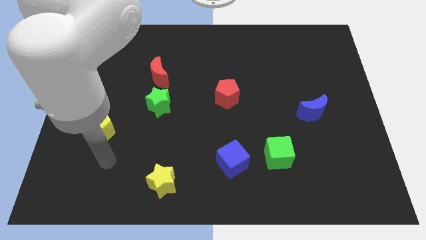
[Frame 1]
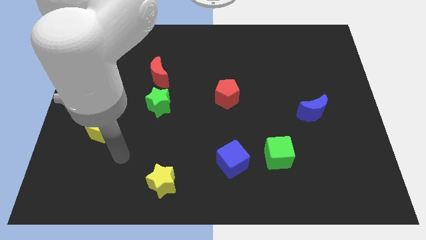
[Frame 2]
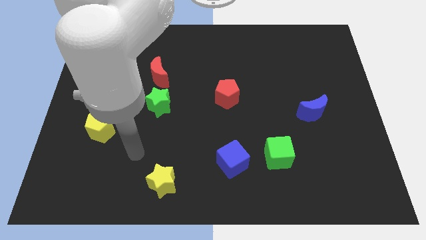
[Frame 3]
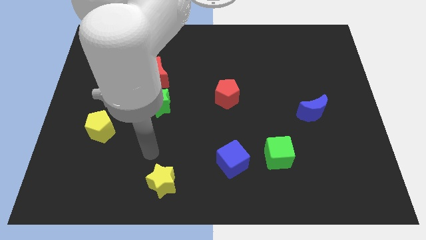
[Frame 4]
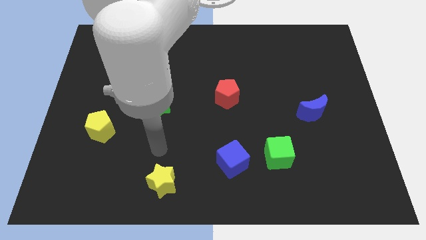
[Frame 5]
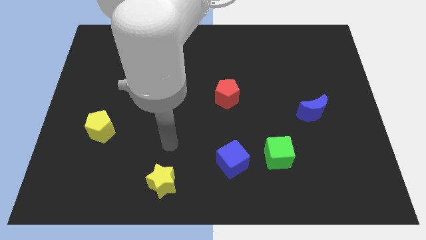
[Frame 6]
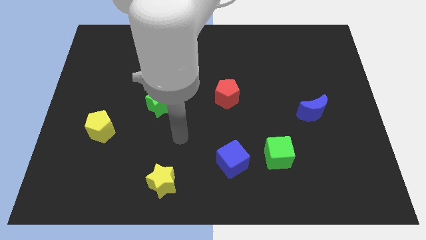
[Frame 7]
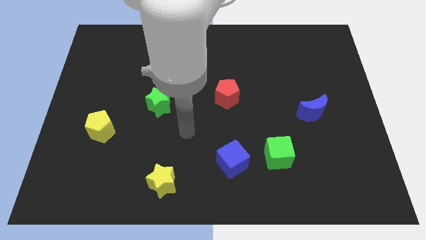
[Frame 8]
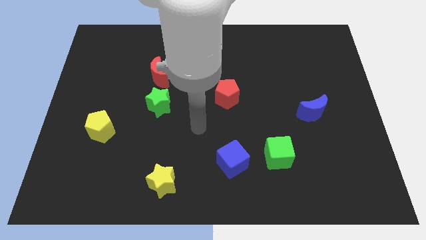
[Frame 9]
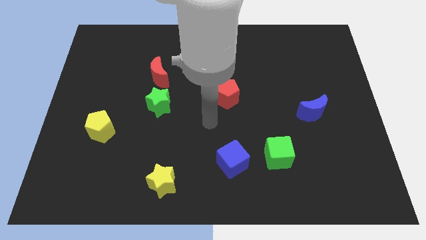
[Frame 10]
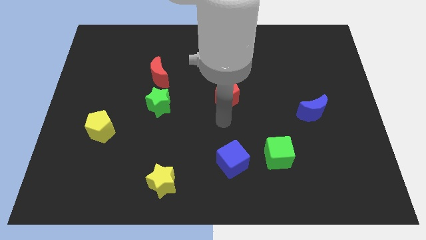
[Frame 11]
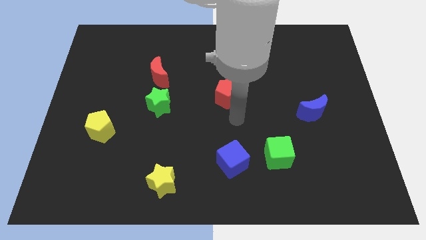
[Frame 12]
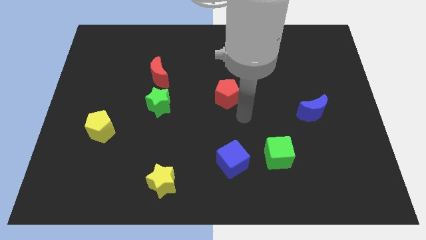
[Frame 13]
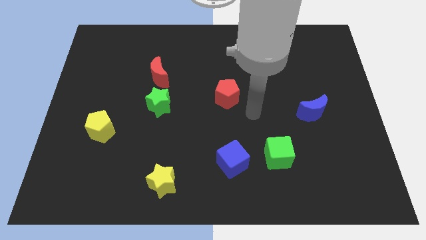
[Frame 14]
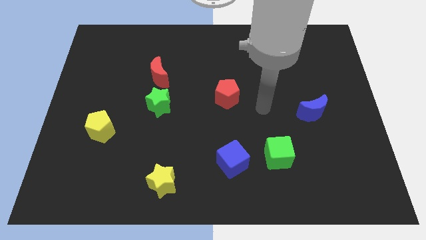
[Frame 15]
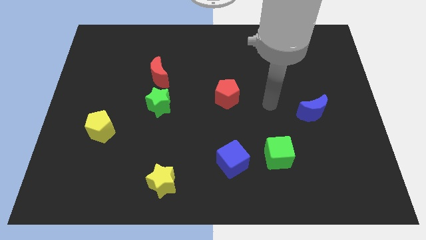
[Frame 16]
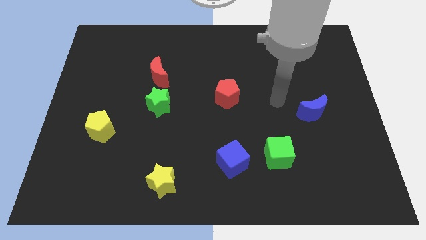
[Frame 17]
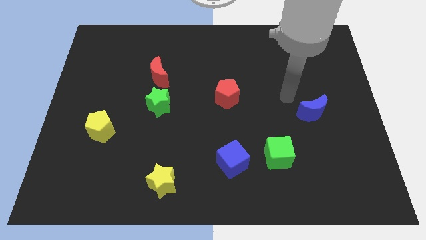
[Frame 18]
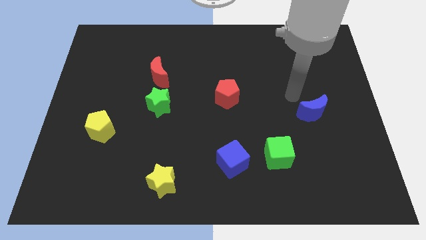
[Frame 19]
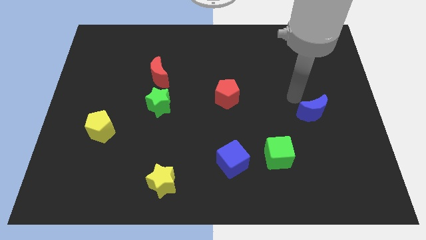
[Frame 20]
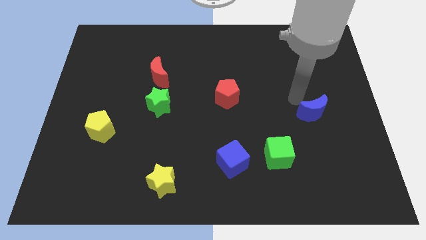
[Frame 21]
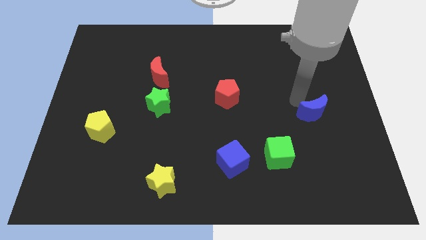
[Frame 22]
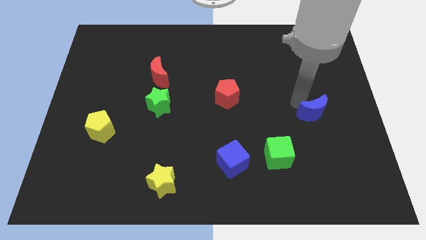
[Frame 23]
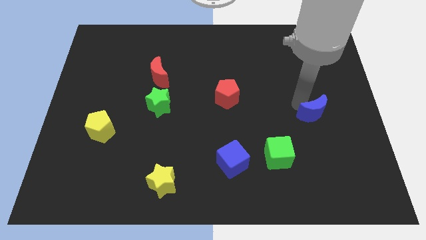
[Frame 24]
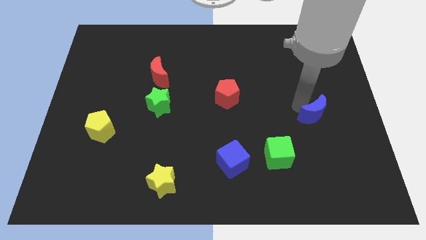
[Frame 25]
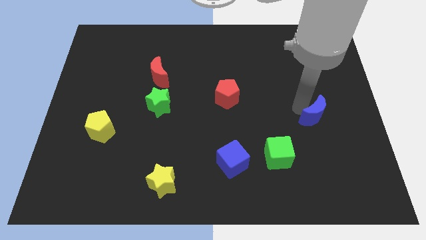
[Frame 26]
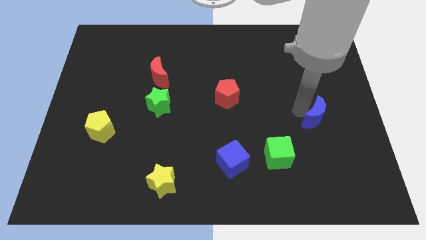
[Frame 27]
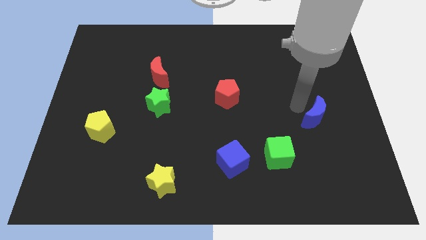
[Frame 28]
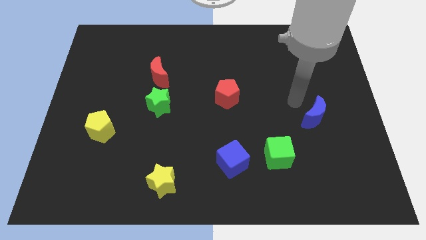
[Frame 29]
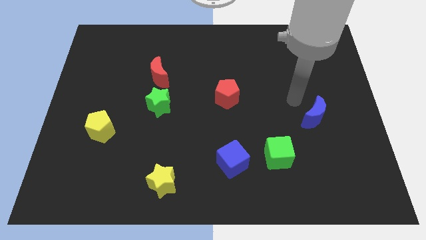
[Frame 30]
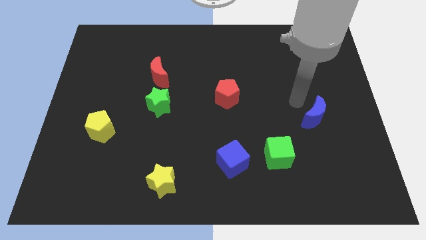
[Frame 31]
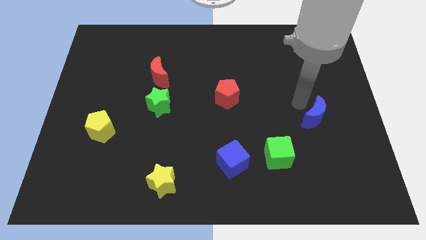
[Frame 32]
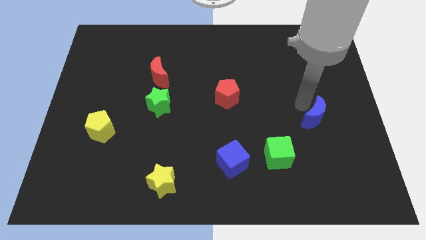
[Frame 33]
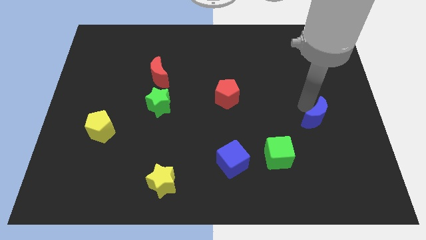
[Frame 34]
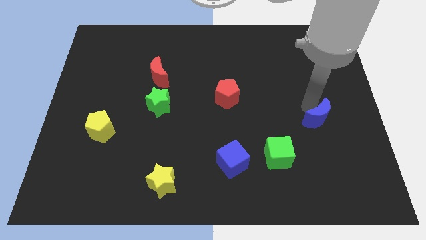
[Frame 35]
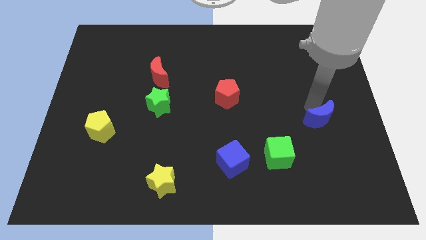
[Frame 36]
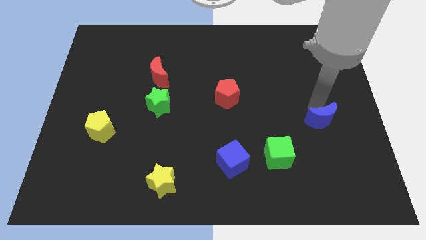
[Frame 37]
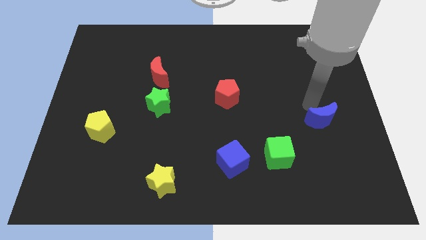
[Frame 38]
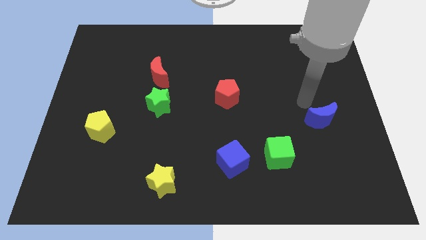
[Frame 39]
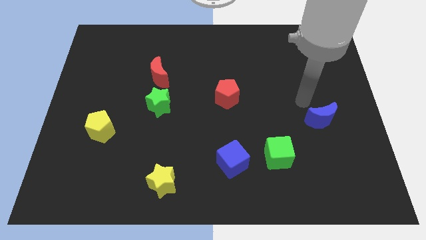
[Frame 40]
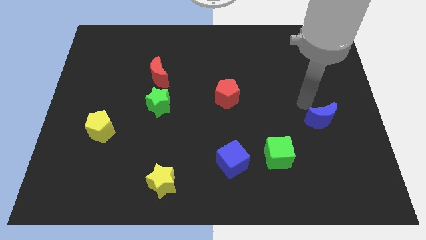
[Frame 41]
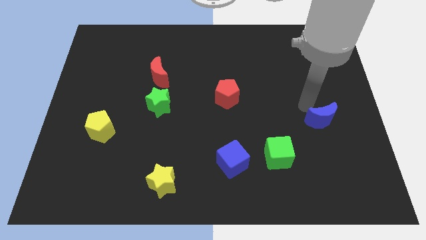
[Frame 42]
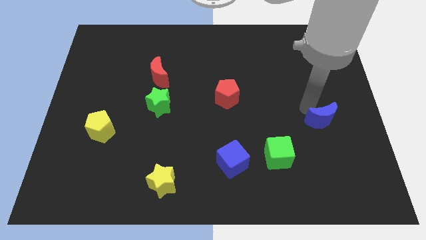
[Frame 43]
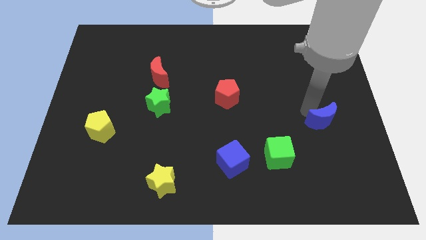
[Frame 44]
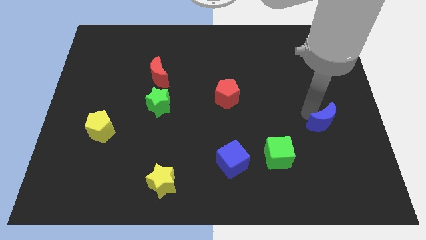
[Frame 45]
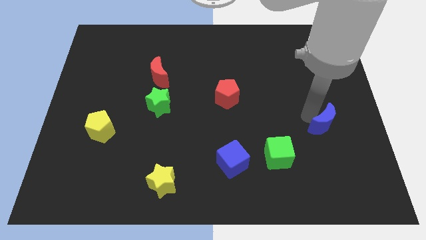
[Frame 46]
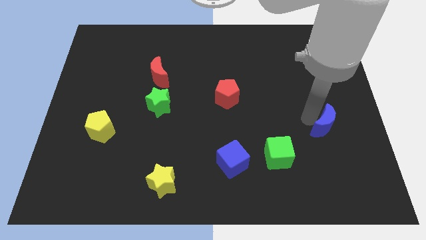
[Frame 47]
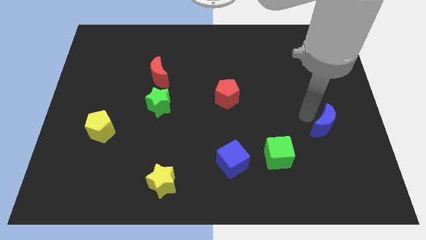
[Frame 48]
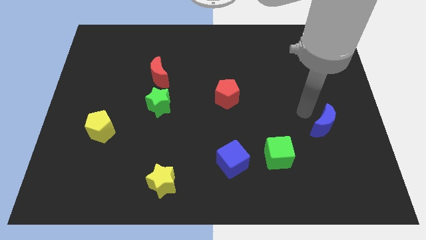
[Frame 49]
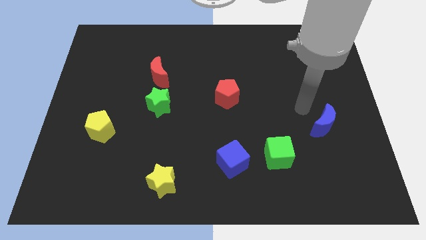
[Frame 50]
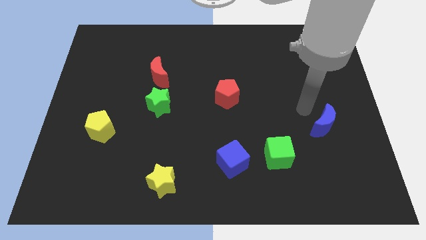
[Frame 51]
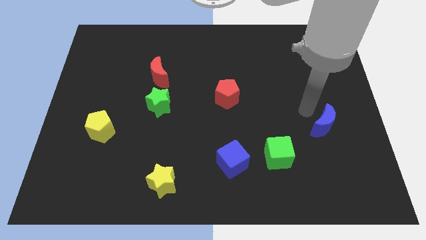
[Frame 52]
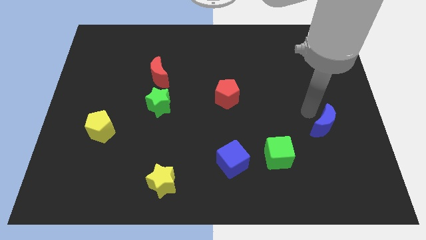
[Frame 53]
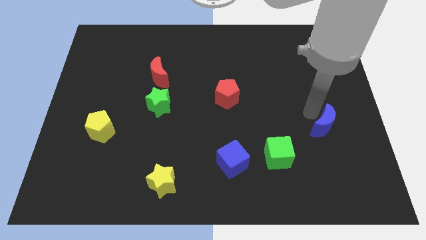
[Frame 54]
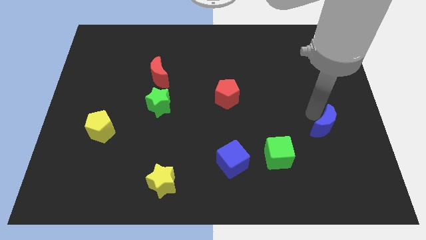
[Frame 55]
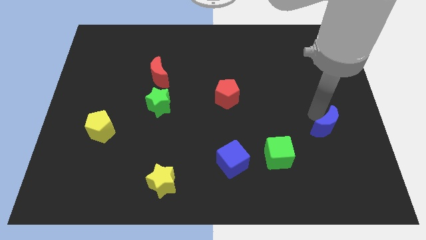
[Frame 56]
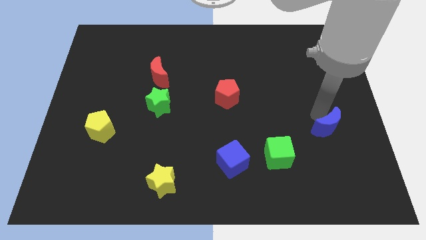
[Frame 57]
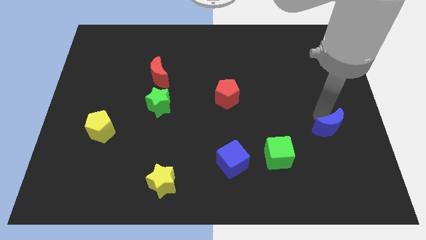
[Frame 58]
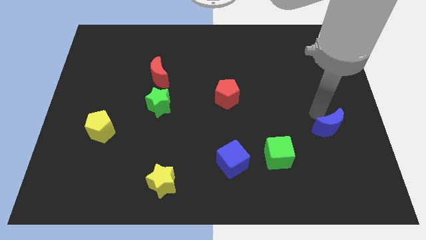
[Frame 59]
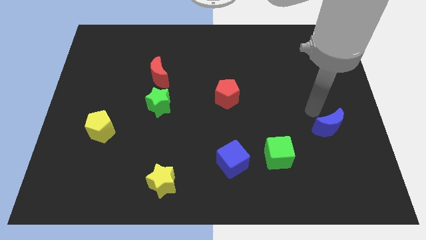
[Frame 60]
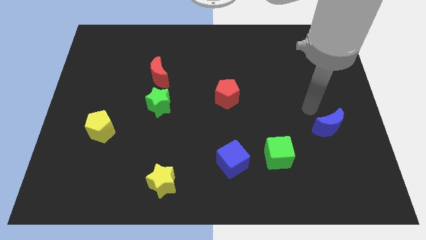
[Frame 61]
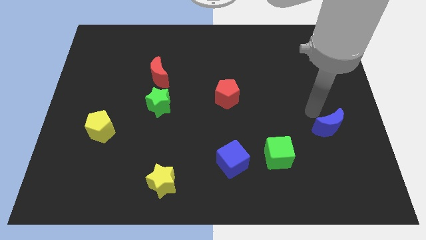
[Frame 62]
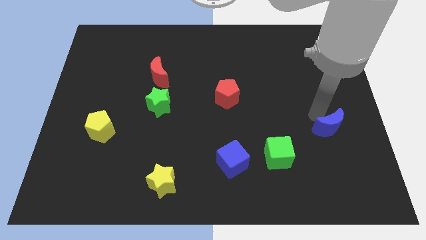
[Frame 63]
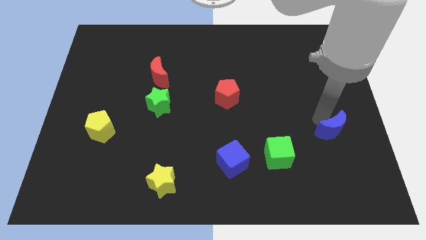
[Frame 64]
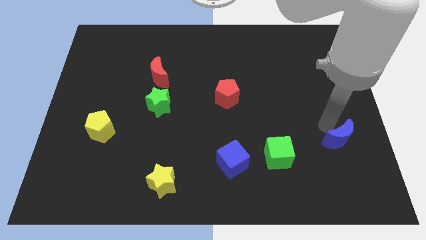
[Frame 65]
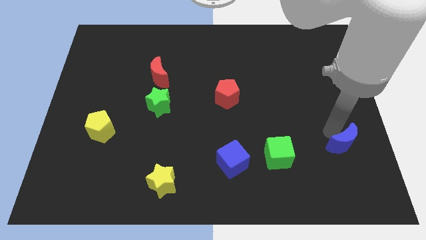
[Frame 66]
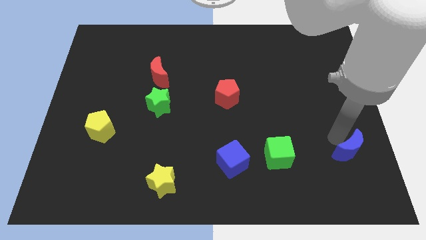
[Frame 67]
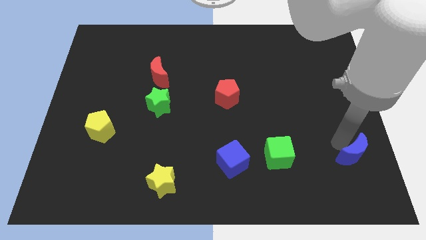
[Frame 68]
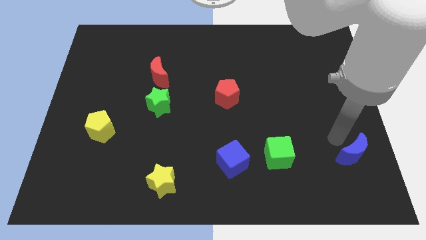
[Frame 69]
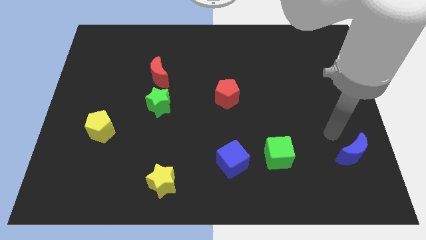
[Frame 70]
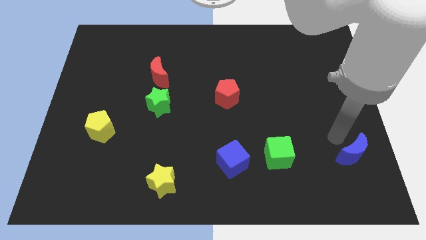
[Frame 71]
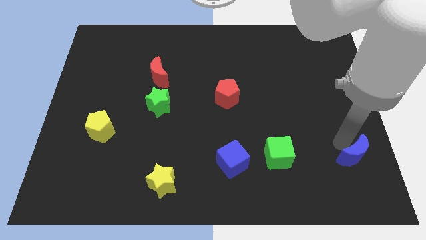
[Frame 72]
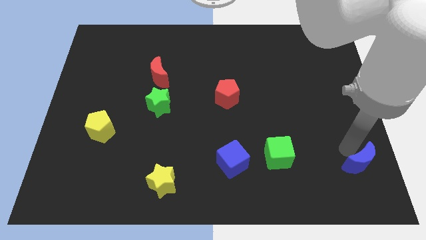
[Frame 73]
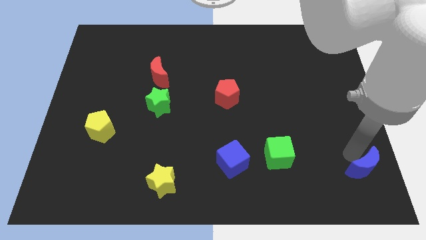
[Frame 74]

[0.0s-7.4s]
slide the blue moon to the bottom right corner
